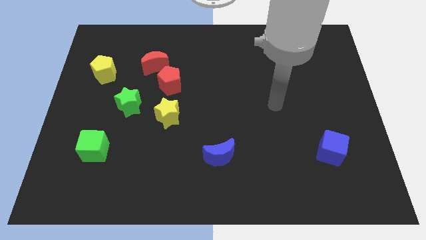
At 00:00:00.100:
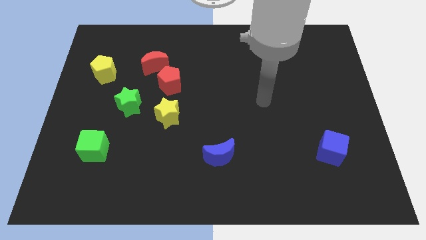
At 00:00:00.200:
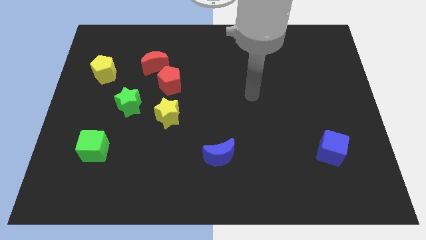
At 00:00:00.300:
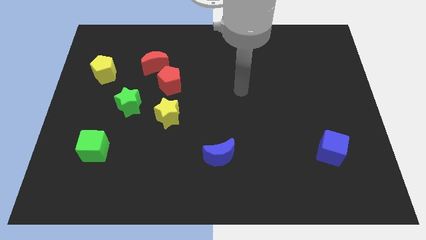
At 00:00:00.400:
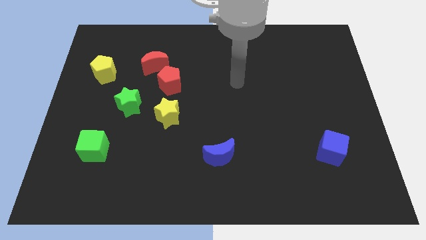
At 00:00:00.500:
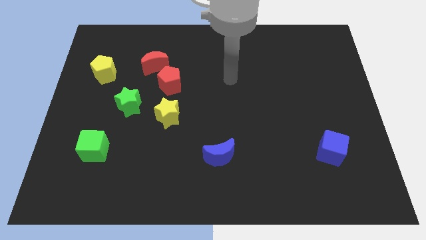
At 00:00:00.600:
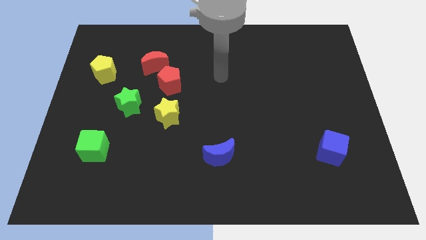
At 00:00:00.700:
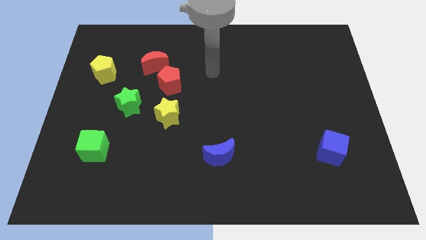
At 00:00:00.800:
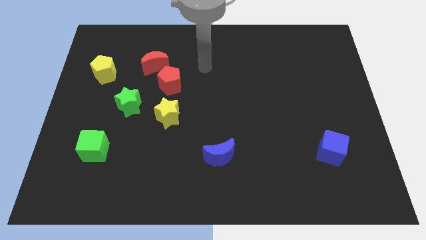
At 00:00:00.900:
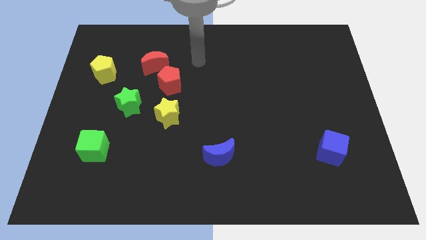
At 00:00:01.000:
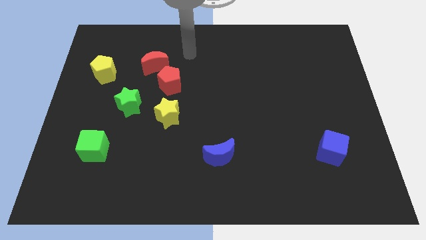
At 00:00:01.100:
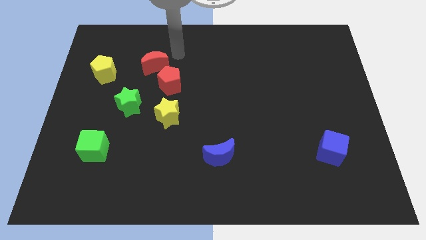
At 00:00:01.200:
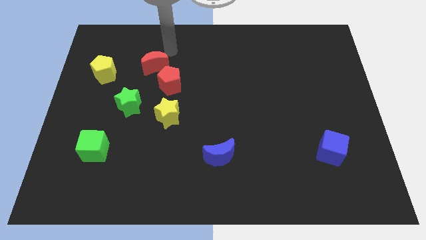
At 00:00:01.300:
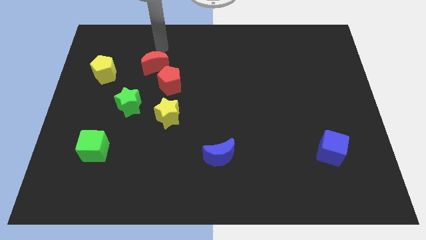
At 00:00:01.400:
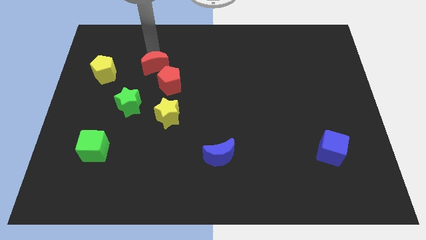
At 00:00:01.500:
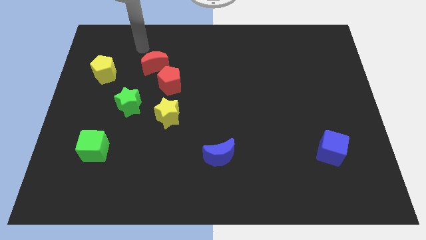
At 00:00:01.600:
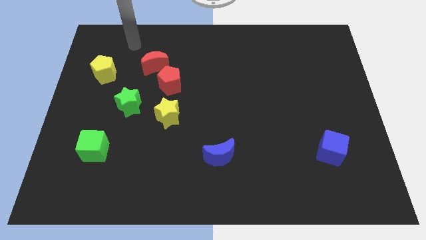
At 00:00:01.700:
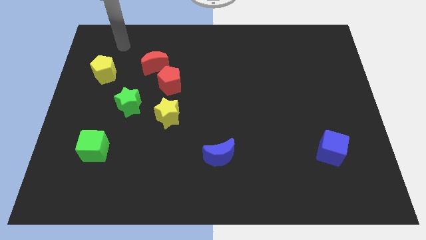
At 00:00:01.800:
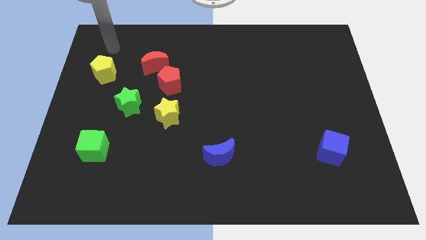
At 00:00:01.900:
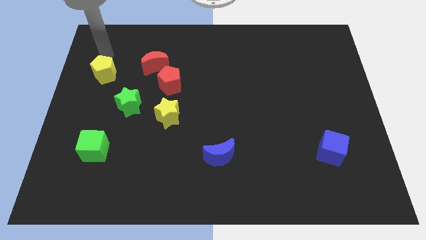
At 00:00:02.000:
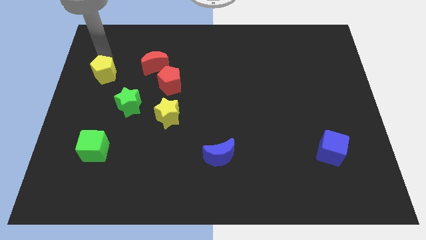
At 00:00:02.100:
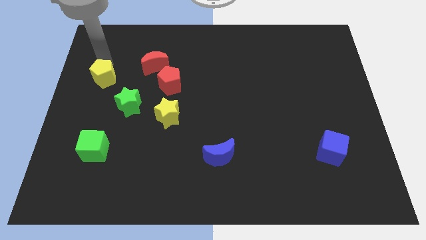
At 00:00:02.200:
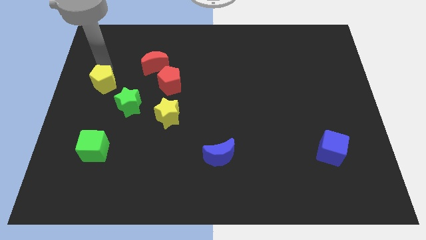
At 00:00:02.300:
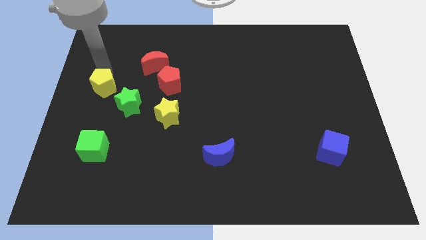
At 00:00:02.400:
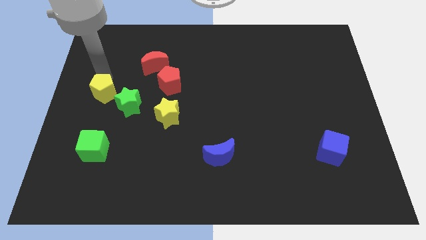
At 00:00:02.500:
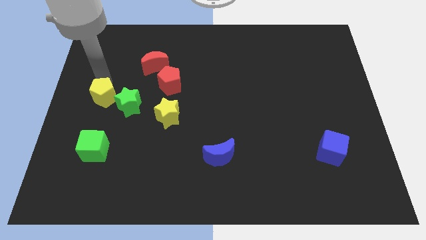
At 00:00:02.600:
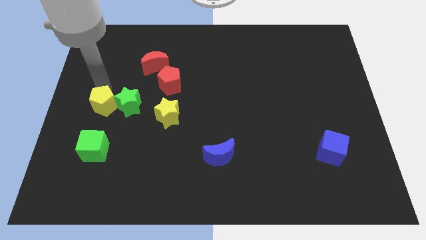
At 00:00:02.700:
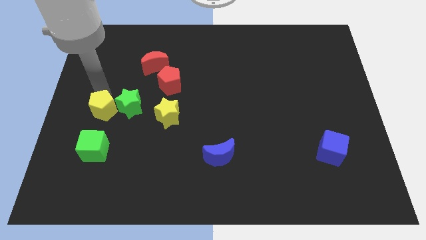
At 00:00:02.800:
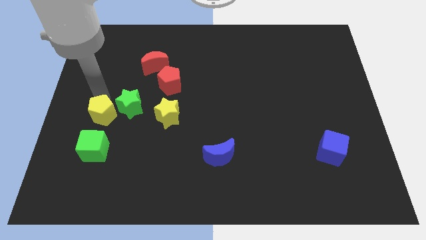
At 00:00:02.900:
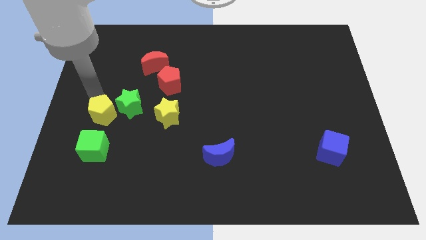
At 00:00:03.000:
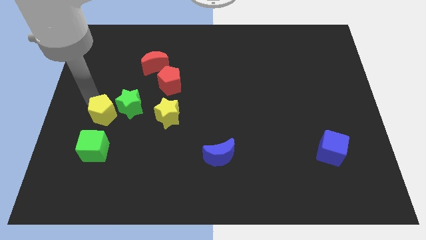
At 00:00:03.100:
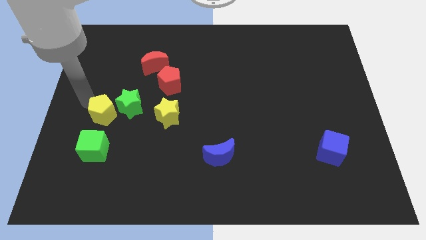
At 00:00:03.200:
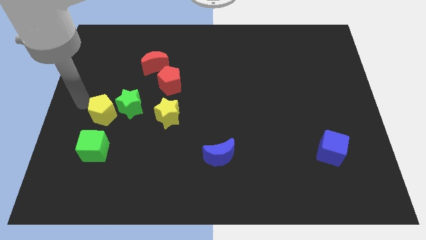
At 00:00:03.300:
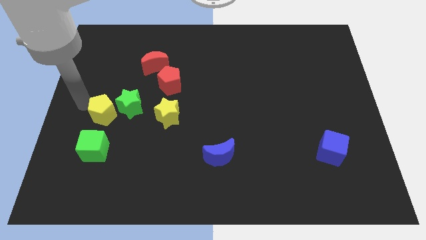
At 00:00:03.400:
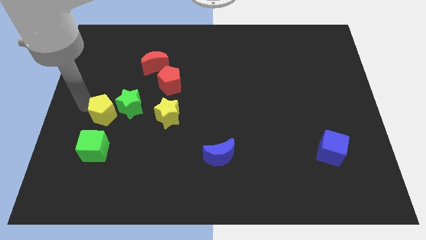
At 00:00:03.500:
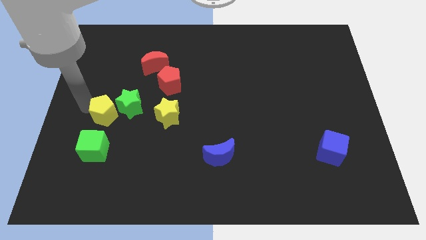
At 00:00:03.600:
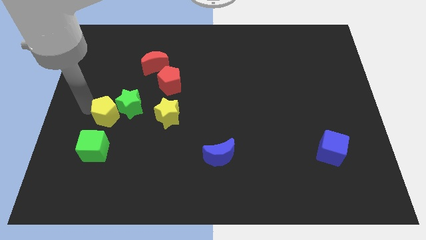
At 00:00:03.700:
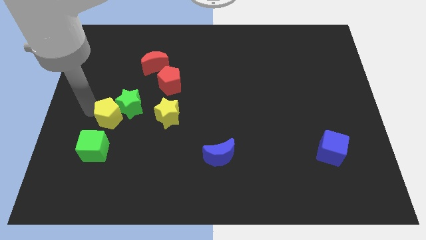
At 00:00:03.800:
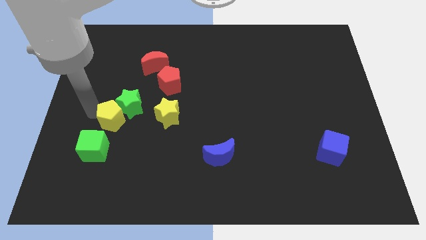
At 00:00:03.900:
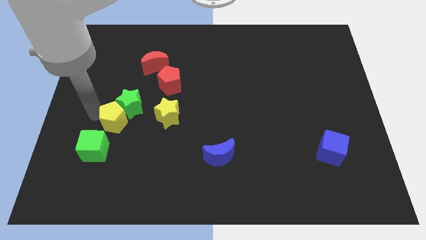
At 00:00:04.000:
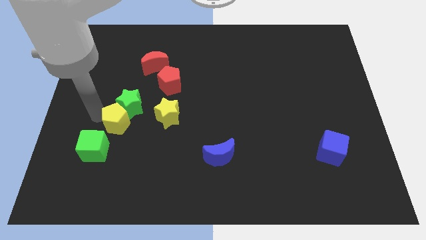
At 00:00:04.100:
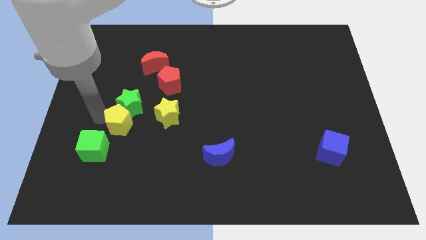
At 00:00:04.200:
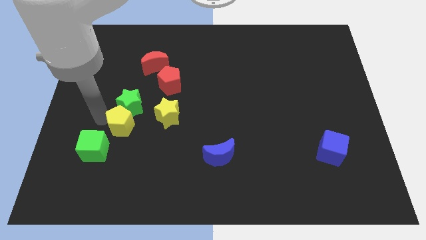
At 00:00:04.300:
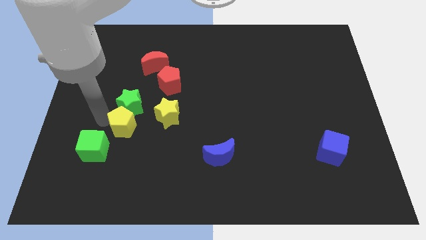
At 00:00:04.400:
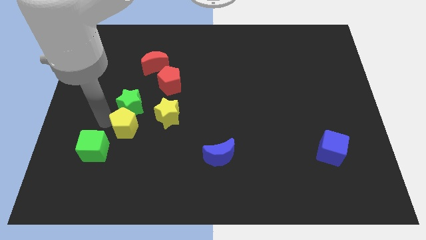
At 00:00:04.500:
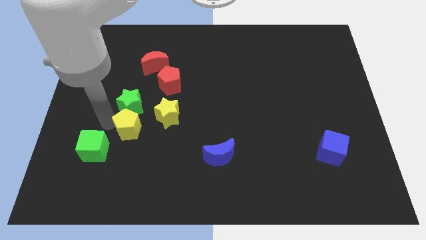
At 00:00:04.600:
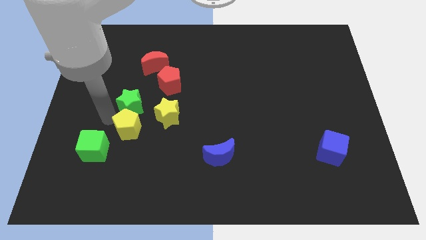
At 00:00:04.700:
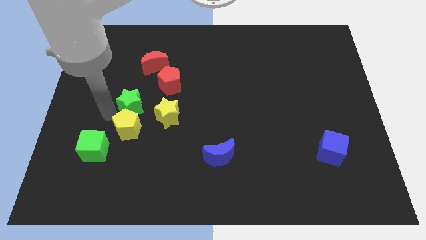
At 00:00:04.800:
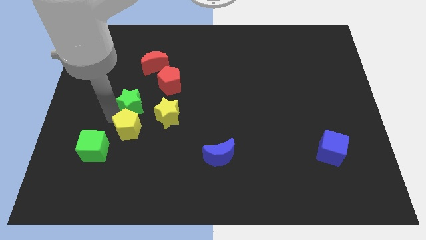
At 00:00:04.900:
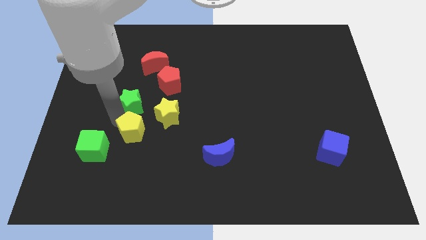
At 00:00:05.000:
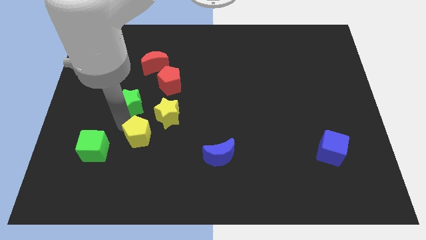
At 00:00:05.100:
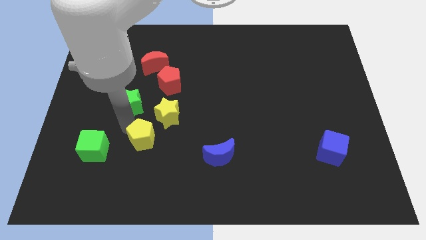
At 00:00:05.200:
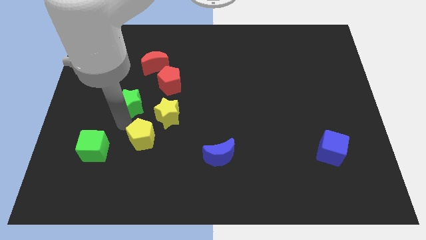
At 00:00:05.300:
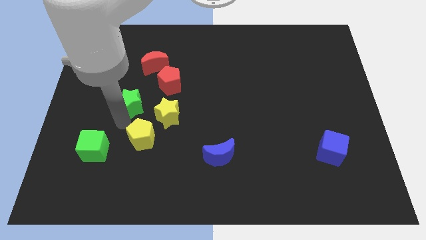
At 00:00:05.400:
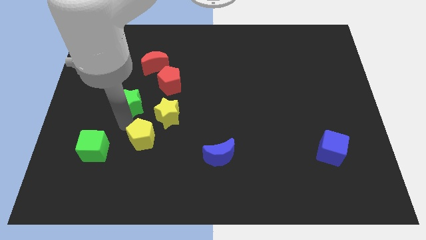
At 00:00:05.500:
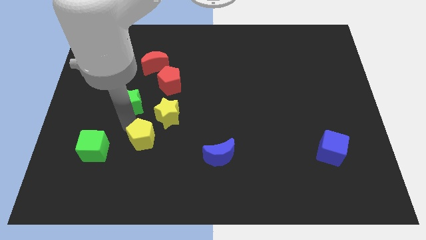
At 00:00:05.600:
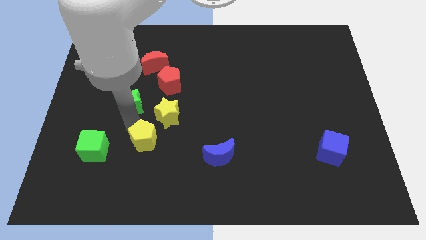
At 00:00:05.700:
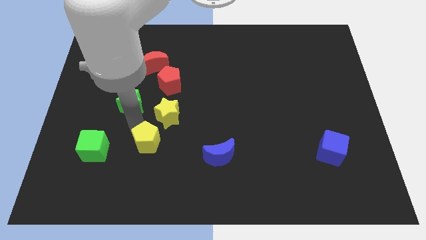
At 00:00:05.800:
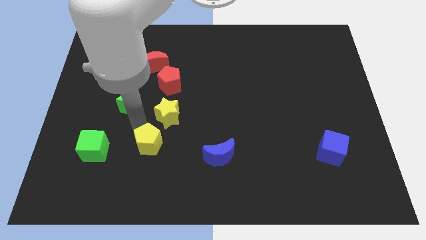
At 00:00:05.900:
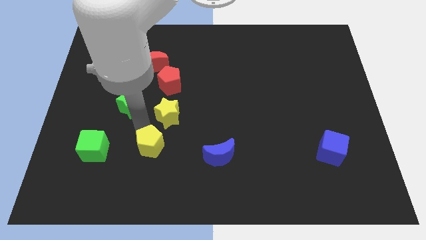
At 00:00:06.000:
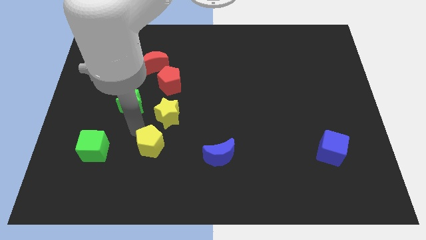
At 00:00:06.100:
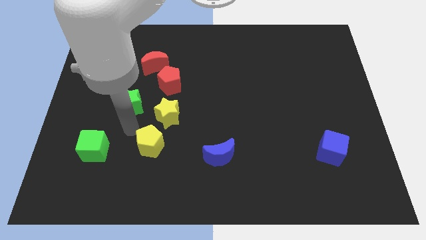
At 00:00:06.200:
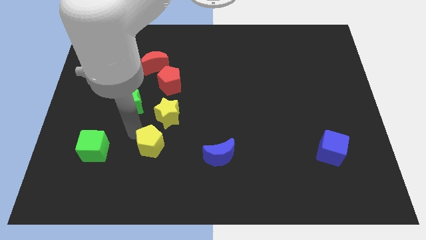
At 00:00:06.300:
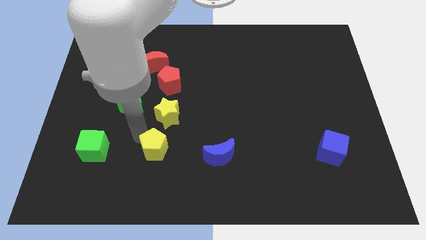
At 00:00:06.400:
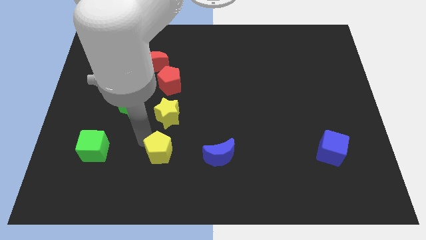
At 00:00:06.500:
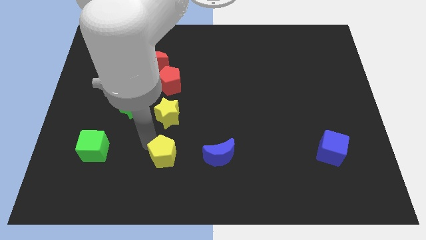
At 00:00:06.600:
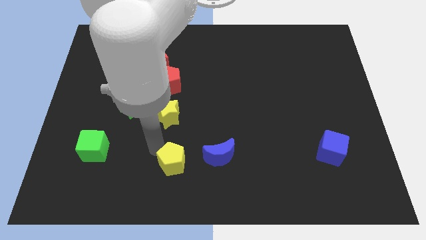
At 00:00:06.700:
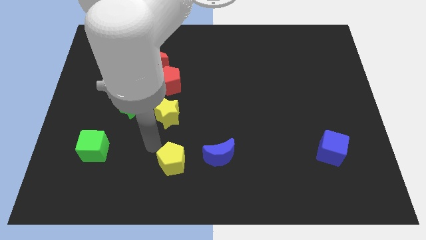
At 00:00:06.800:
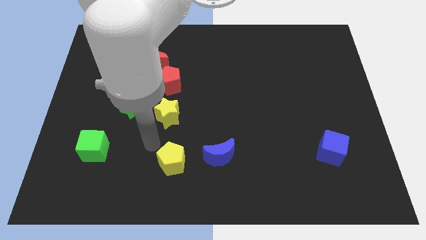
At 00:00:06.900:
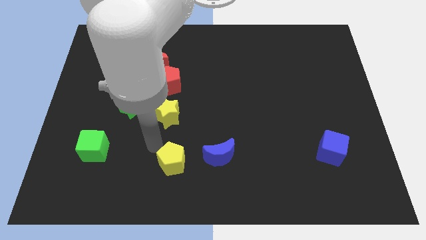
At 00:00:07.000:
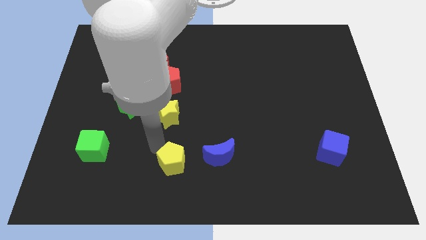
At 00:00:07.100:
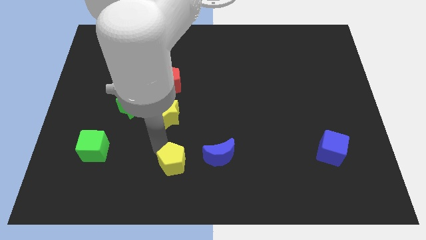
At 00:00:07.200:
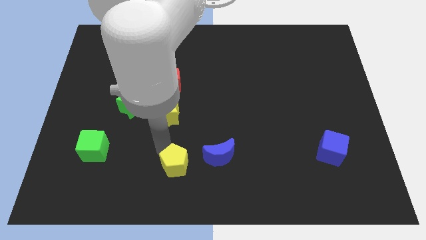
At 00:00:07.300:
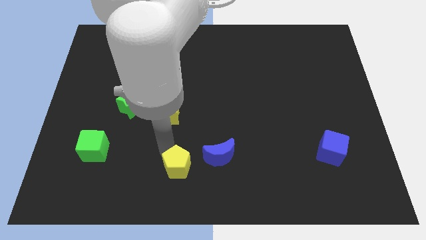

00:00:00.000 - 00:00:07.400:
push the yellow pentagon to the bottom left of the blue moon

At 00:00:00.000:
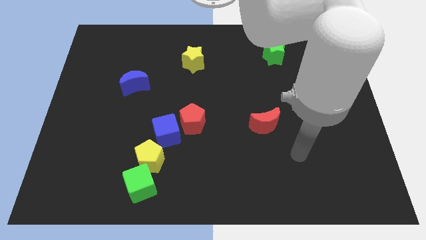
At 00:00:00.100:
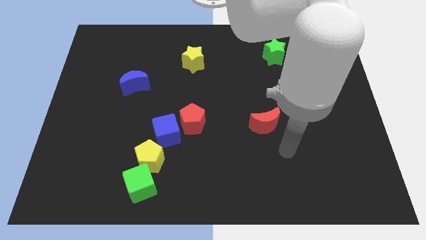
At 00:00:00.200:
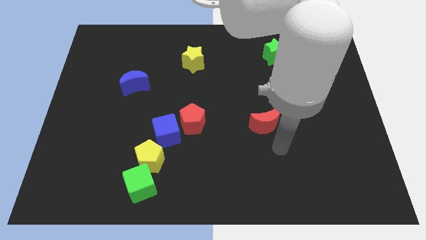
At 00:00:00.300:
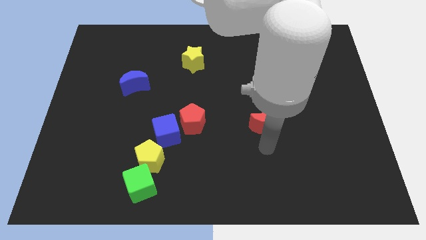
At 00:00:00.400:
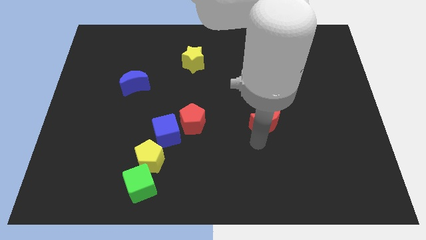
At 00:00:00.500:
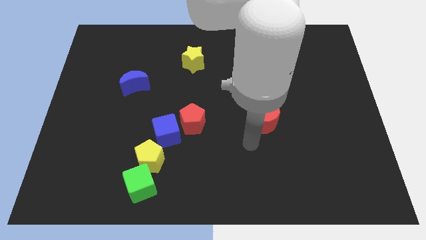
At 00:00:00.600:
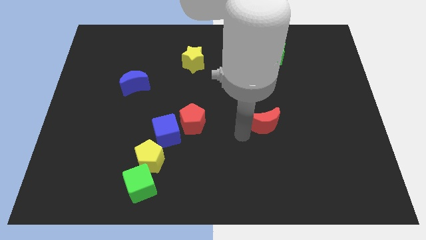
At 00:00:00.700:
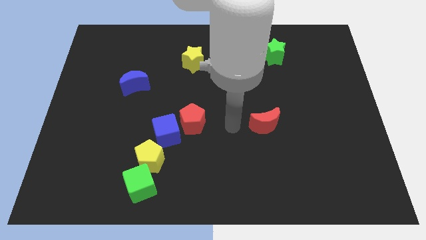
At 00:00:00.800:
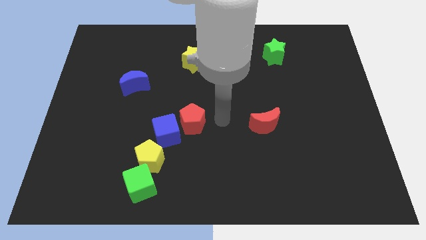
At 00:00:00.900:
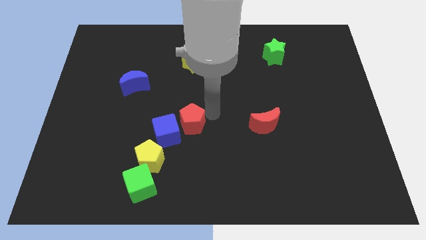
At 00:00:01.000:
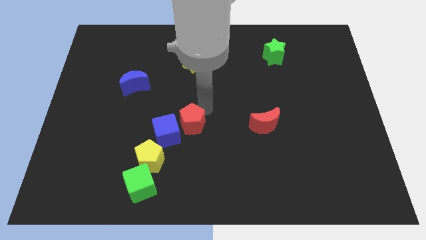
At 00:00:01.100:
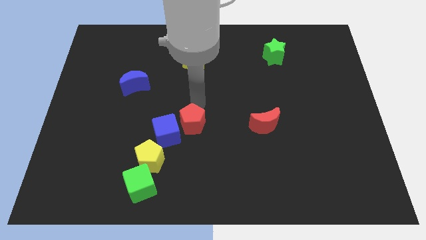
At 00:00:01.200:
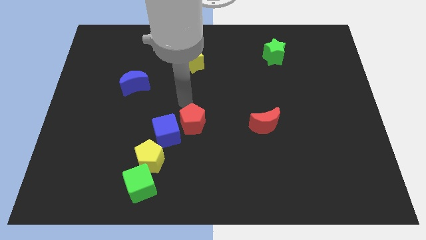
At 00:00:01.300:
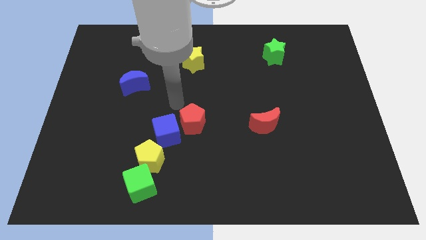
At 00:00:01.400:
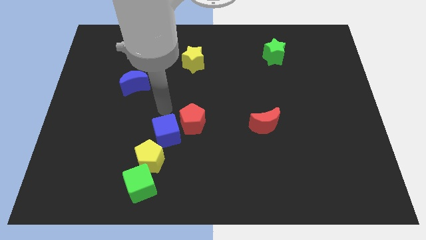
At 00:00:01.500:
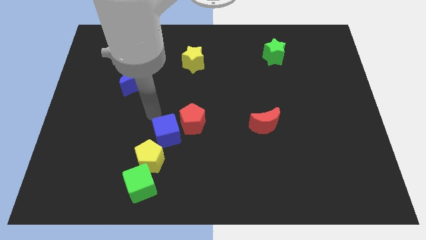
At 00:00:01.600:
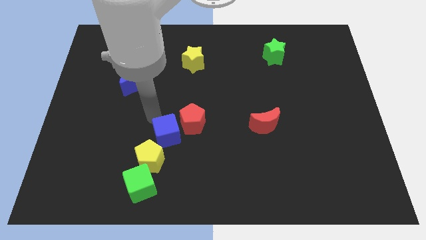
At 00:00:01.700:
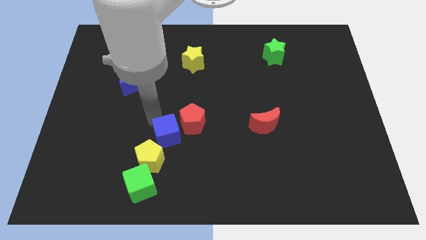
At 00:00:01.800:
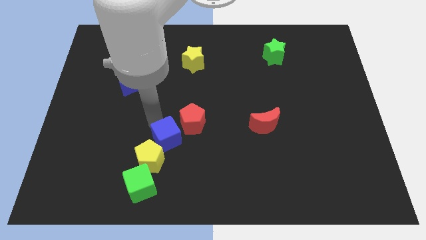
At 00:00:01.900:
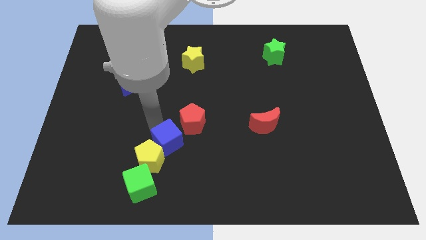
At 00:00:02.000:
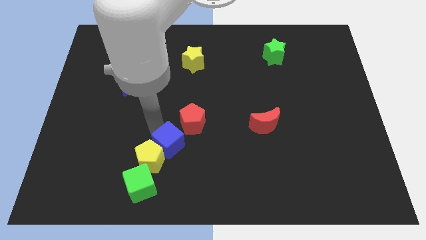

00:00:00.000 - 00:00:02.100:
push the blue cube to the bottom side of the red pentagon
